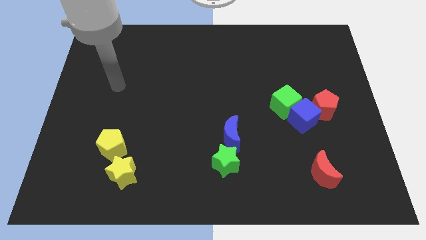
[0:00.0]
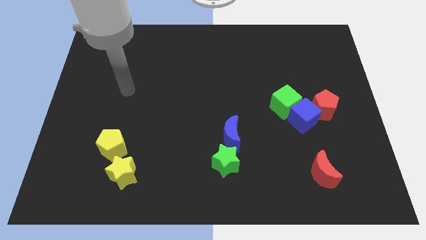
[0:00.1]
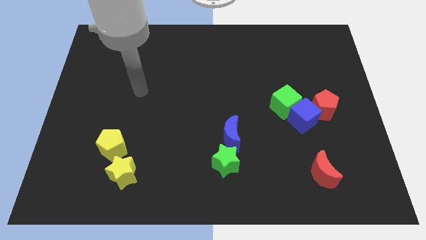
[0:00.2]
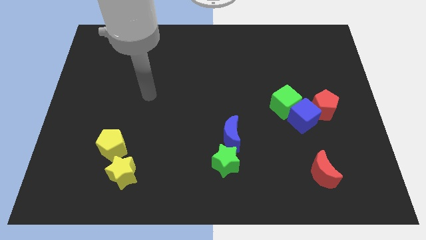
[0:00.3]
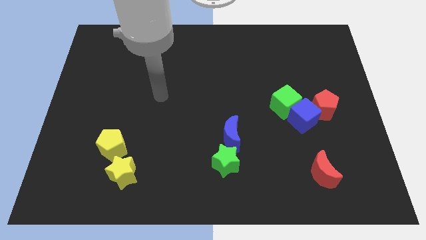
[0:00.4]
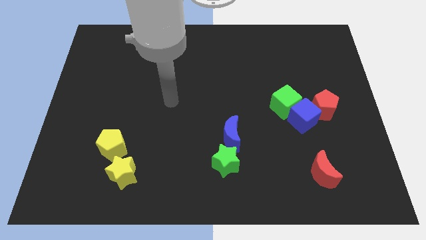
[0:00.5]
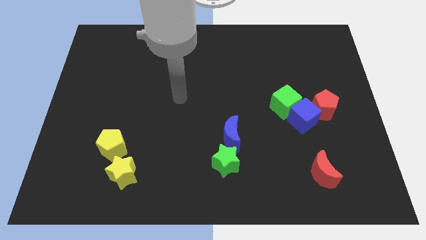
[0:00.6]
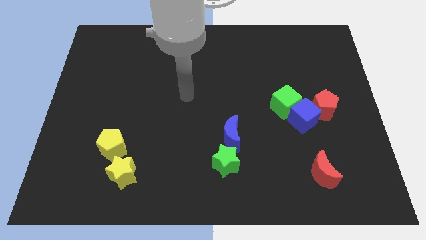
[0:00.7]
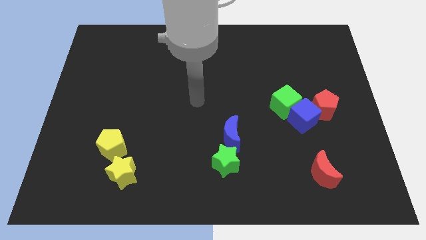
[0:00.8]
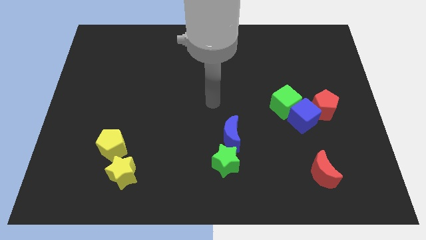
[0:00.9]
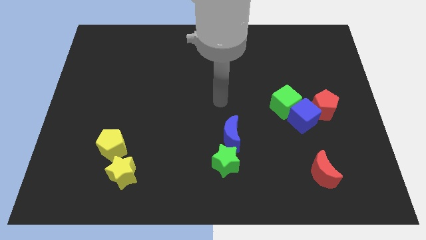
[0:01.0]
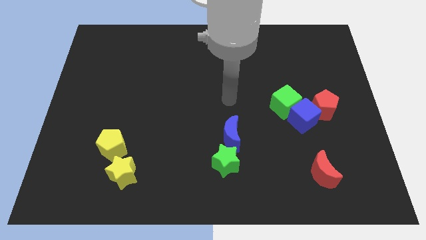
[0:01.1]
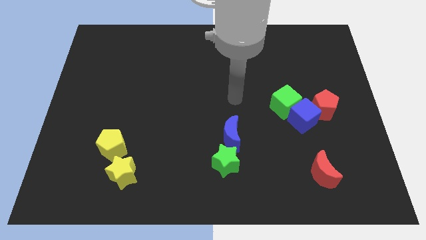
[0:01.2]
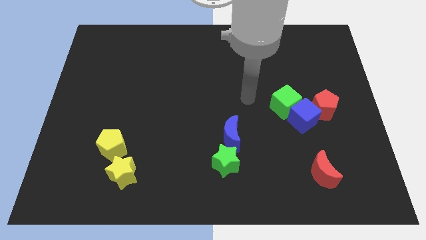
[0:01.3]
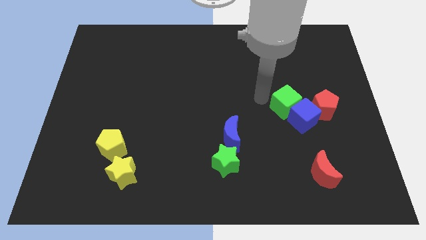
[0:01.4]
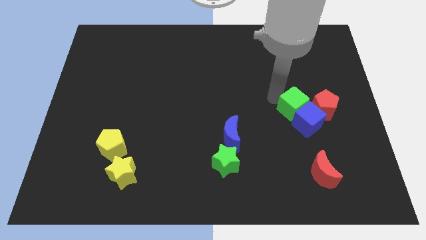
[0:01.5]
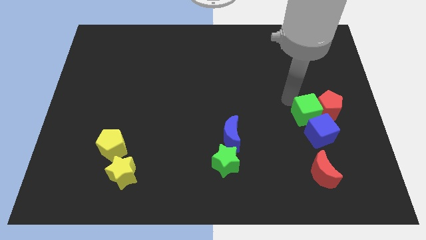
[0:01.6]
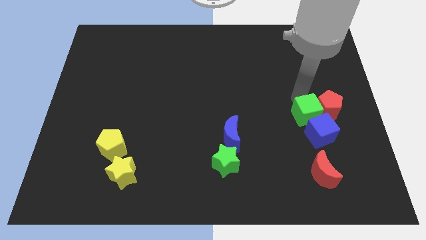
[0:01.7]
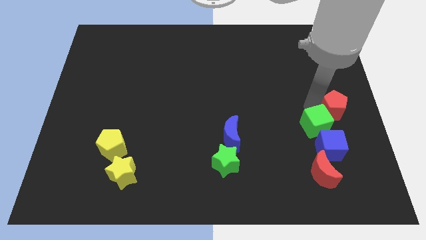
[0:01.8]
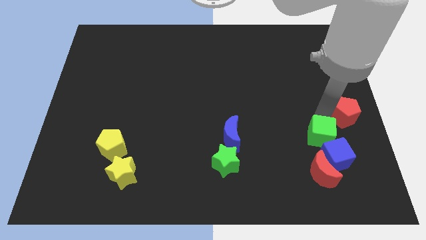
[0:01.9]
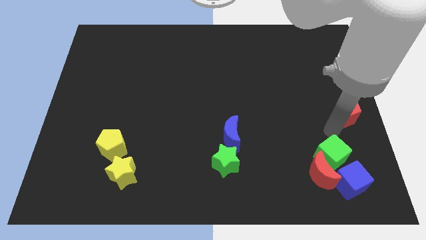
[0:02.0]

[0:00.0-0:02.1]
separate the blue cube from the green cube and red pentagon

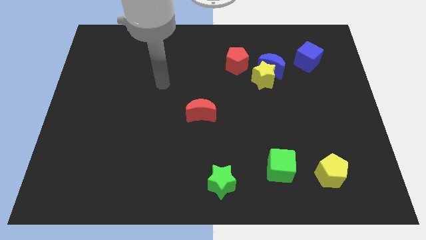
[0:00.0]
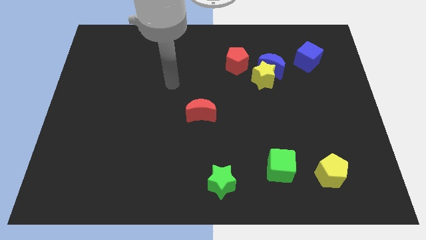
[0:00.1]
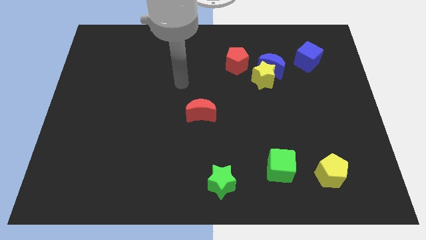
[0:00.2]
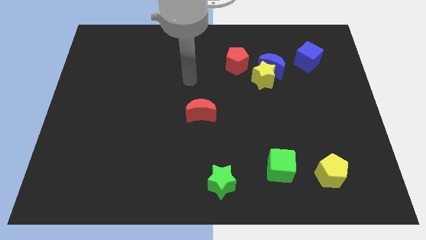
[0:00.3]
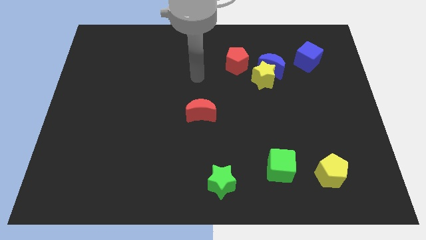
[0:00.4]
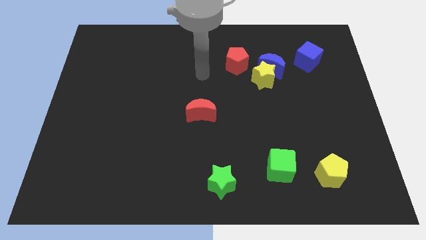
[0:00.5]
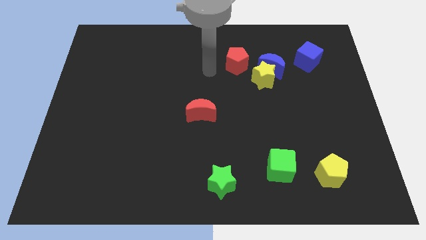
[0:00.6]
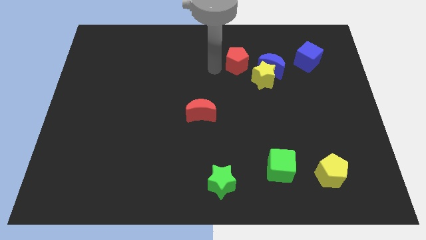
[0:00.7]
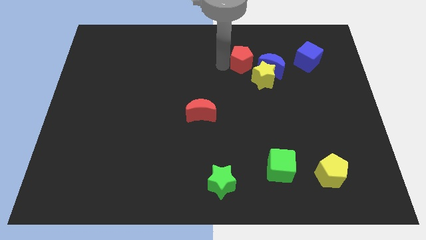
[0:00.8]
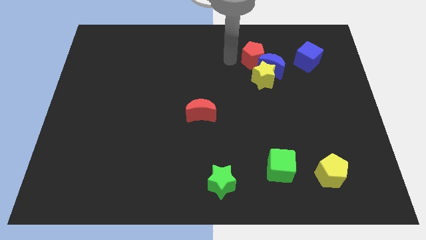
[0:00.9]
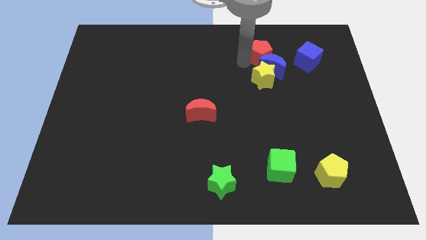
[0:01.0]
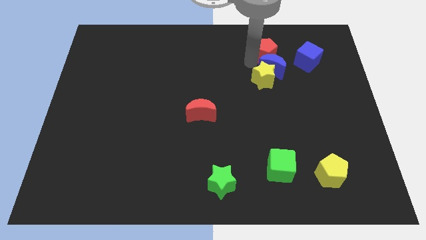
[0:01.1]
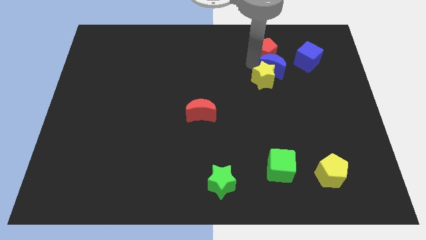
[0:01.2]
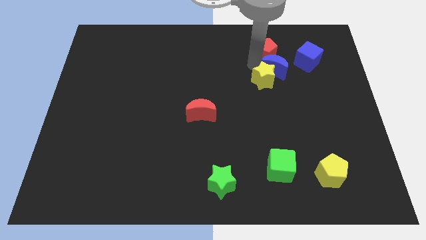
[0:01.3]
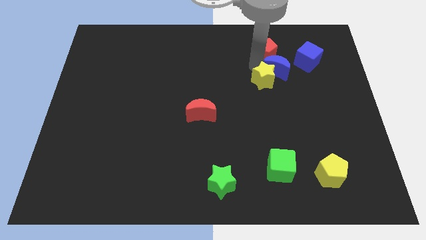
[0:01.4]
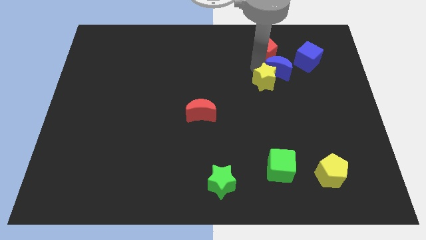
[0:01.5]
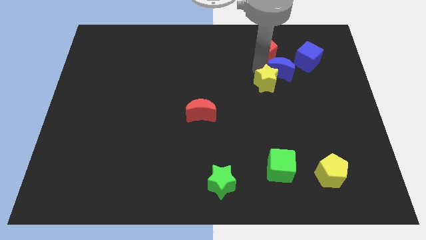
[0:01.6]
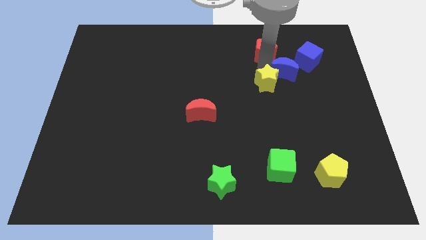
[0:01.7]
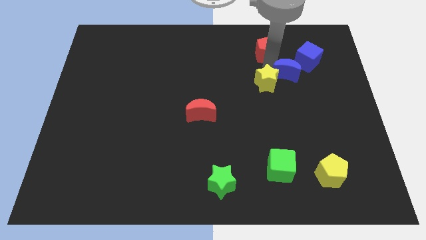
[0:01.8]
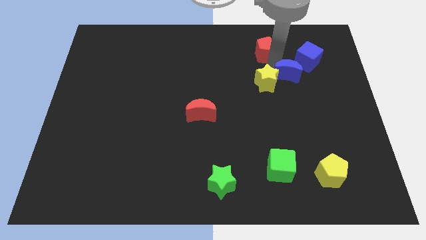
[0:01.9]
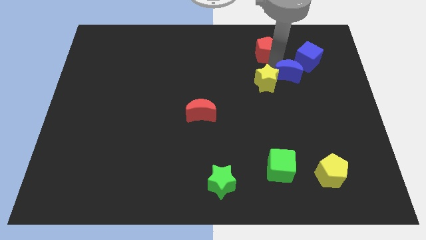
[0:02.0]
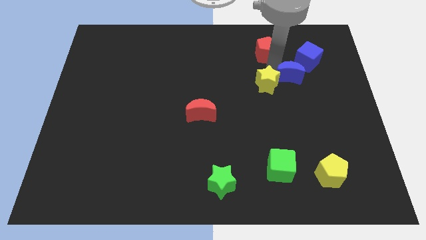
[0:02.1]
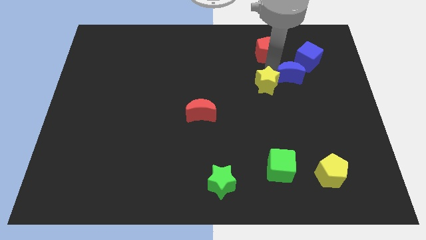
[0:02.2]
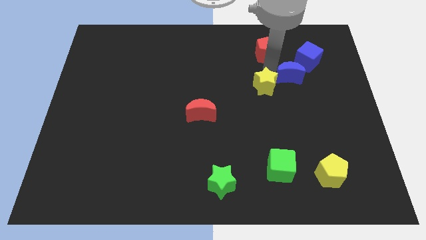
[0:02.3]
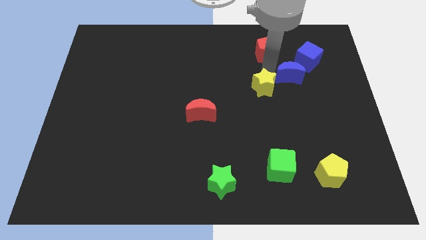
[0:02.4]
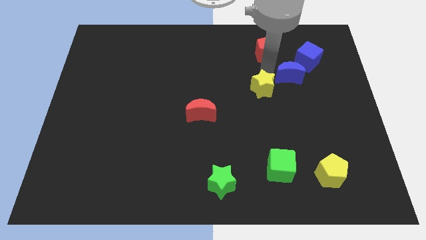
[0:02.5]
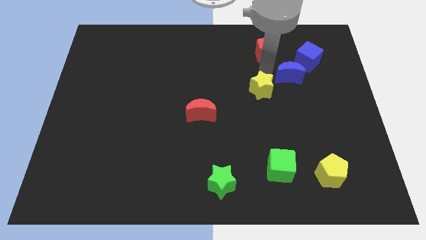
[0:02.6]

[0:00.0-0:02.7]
separate the yellow star from the blue moon and red pentagon

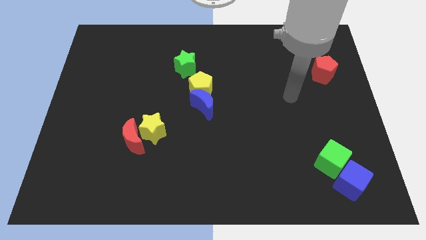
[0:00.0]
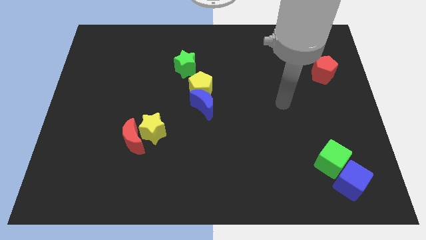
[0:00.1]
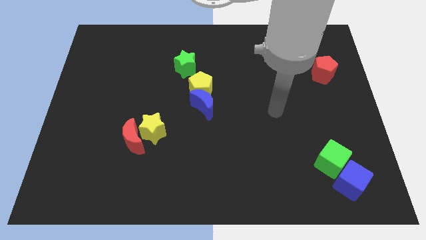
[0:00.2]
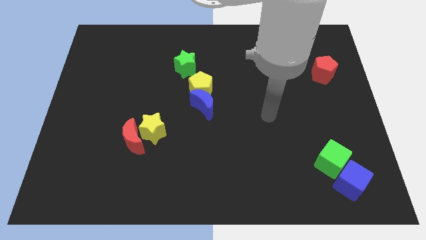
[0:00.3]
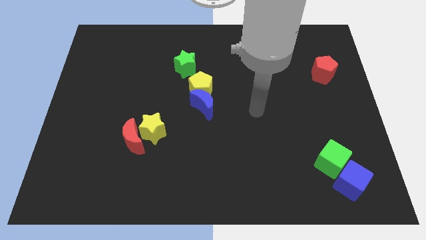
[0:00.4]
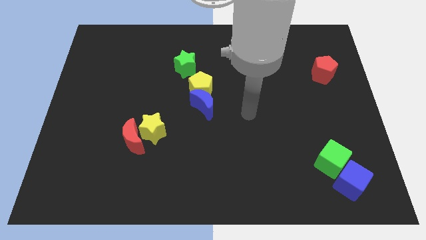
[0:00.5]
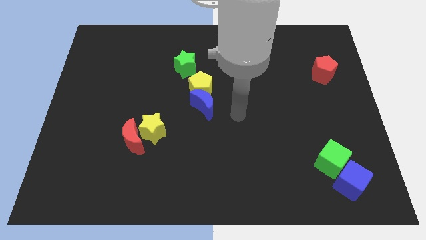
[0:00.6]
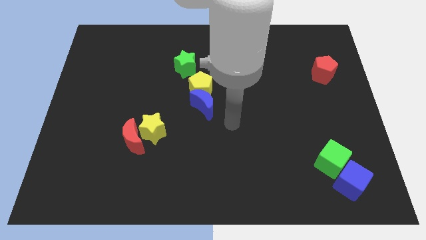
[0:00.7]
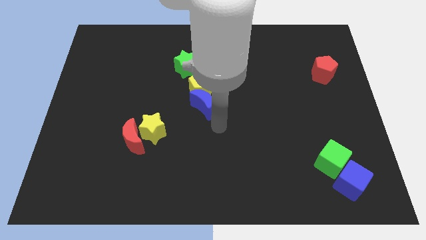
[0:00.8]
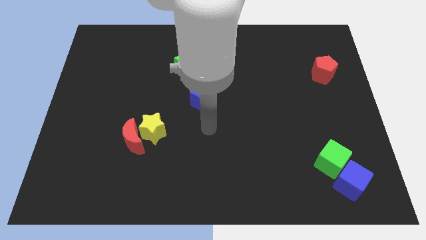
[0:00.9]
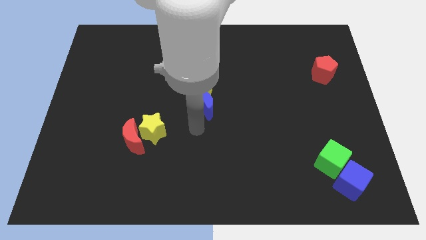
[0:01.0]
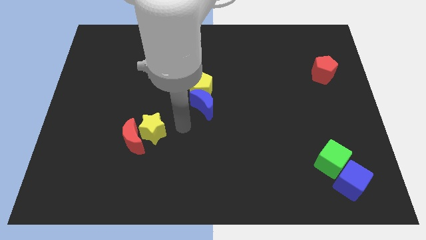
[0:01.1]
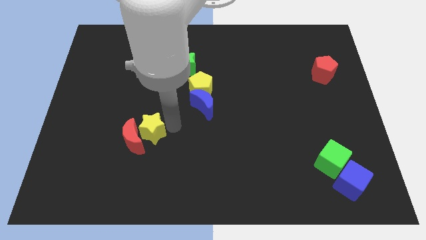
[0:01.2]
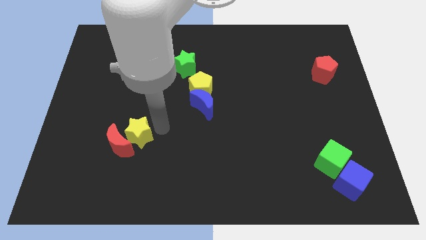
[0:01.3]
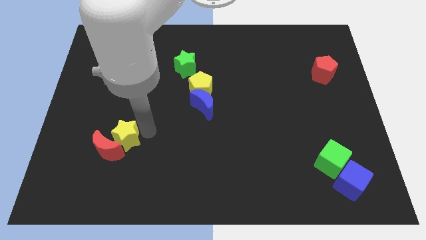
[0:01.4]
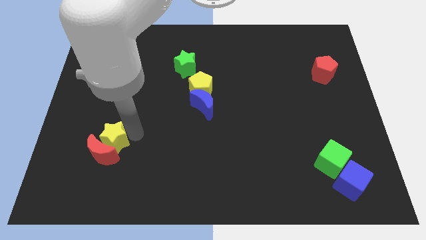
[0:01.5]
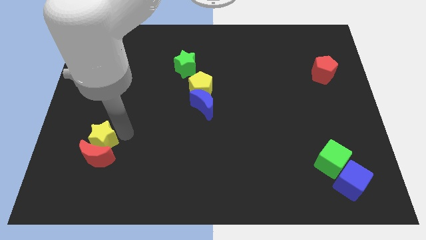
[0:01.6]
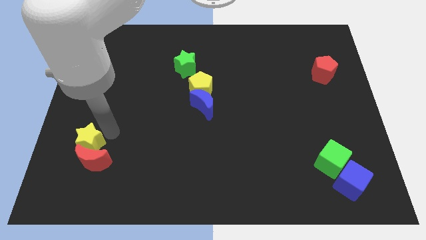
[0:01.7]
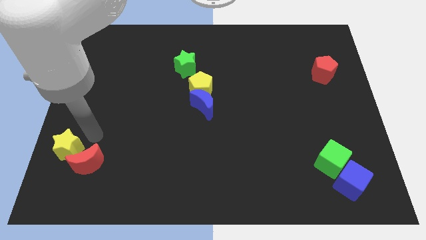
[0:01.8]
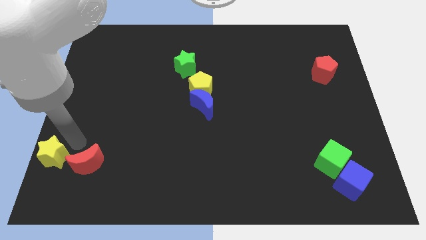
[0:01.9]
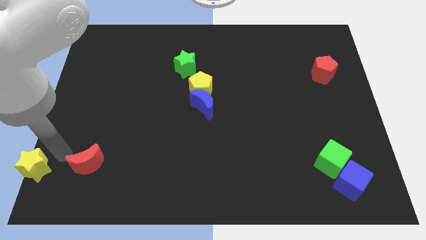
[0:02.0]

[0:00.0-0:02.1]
pull the red moon apart from the yellow star

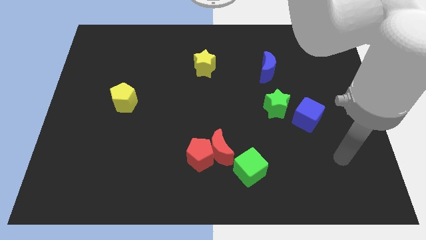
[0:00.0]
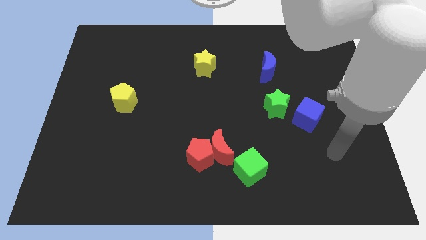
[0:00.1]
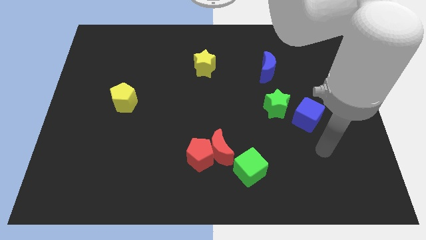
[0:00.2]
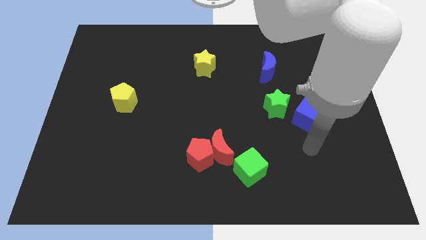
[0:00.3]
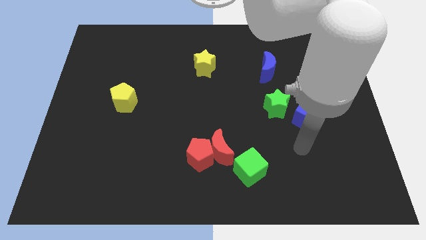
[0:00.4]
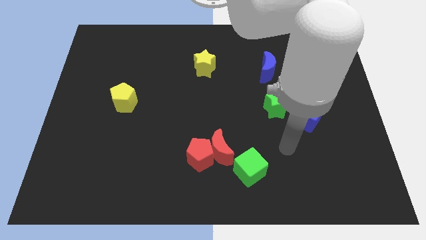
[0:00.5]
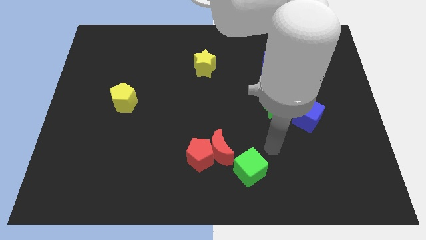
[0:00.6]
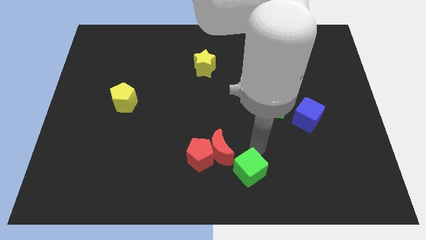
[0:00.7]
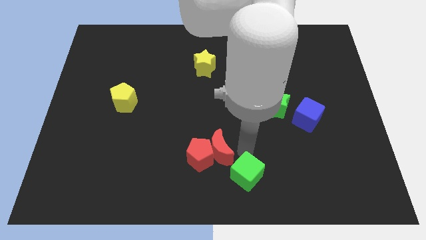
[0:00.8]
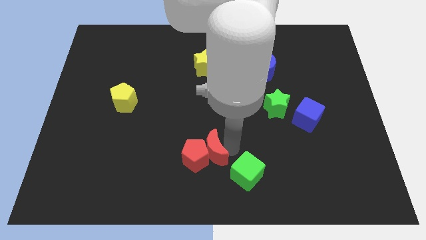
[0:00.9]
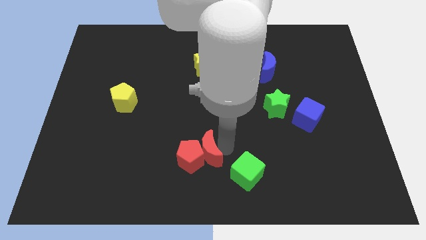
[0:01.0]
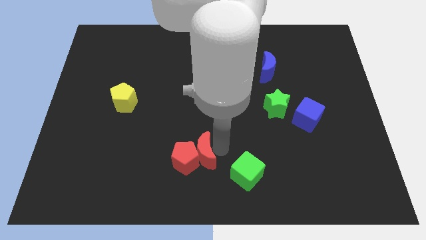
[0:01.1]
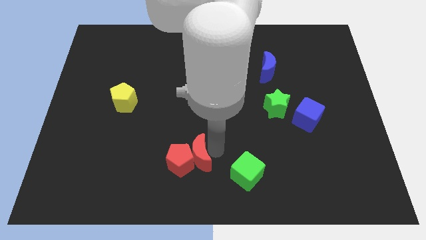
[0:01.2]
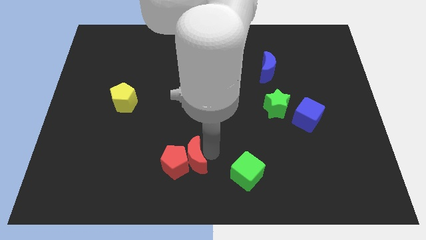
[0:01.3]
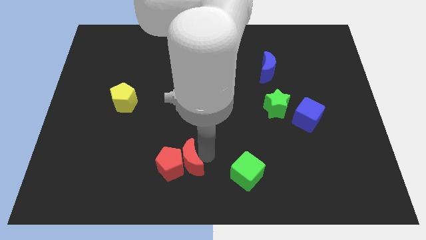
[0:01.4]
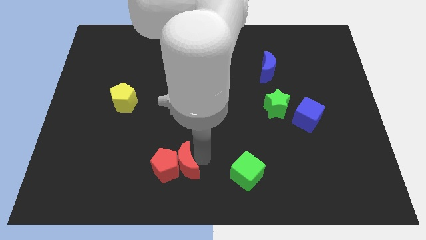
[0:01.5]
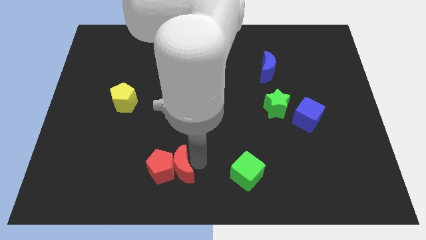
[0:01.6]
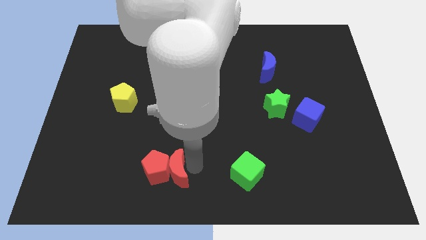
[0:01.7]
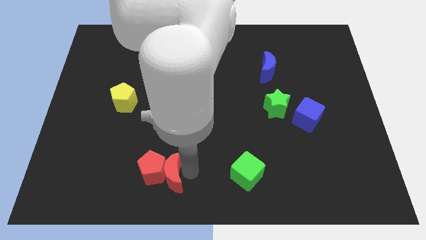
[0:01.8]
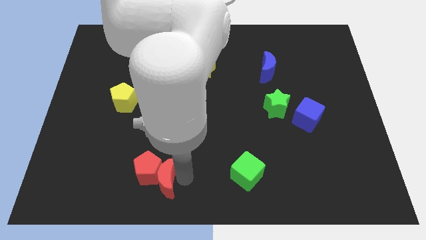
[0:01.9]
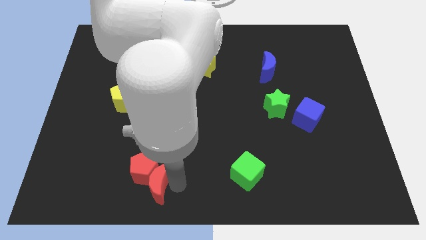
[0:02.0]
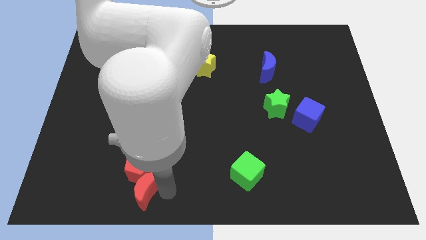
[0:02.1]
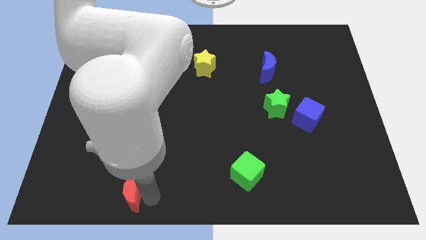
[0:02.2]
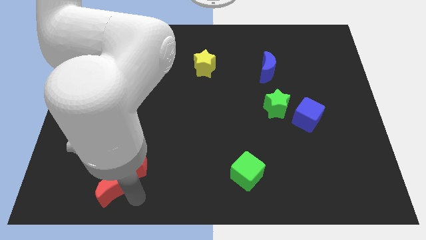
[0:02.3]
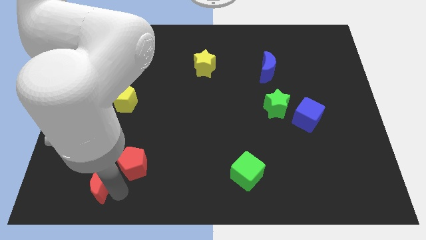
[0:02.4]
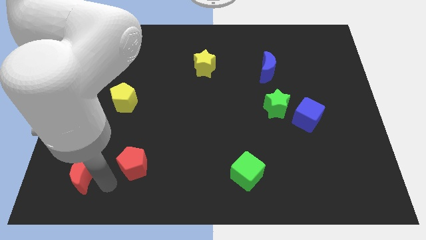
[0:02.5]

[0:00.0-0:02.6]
pull the red pentagon apart from the red moon
